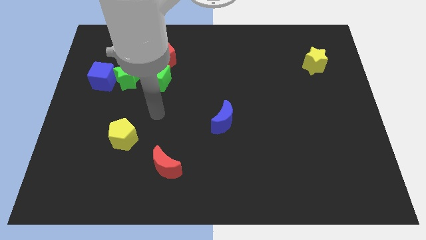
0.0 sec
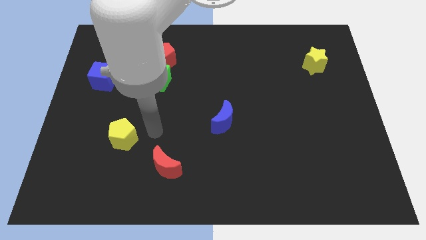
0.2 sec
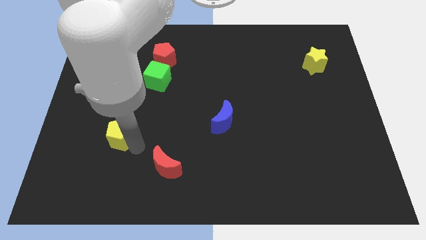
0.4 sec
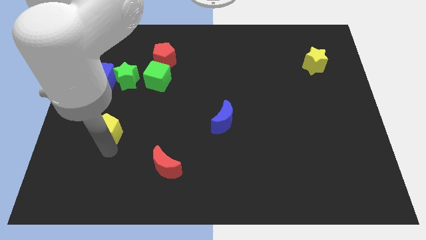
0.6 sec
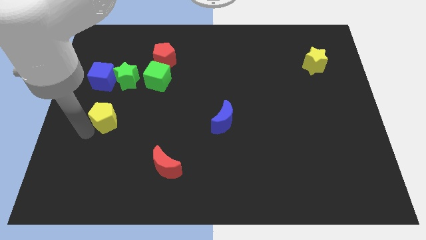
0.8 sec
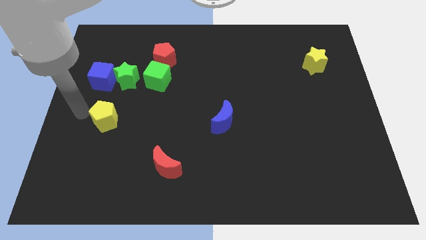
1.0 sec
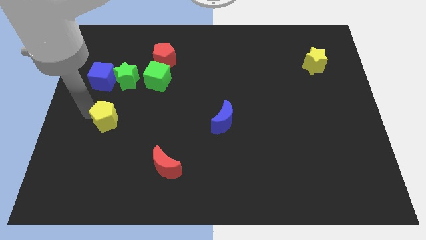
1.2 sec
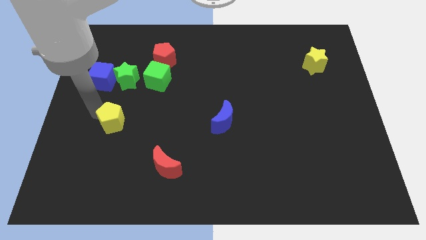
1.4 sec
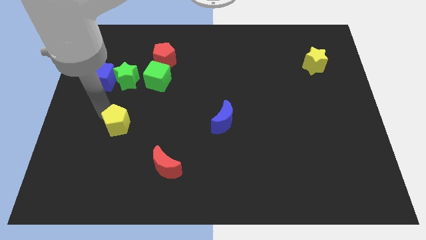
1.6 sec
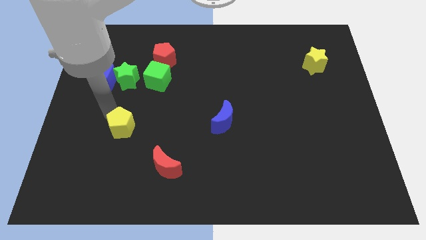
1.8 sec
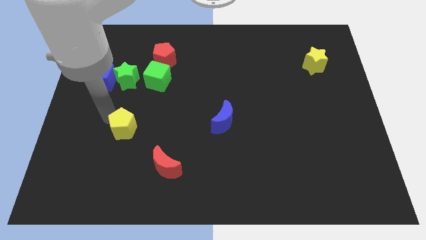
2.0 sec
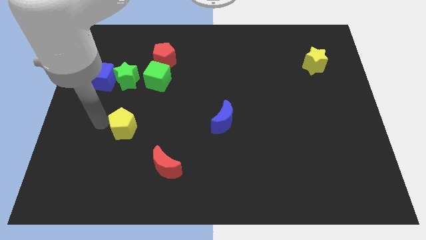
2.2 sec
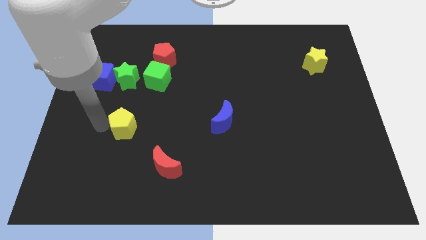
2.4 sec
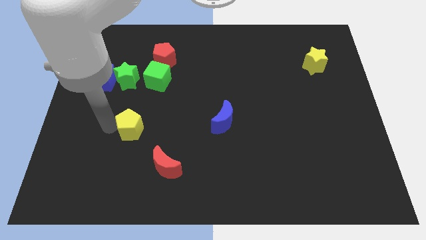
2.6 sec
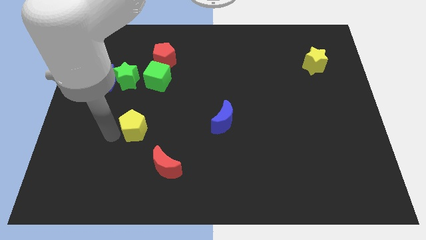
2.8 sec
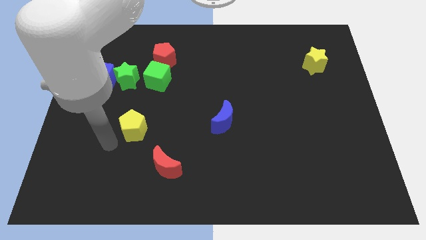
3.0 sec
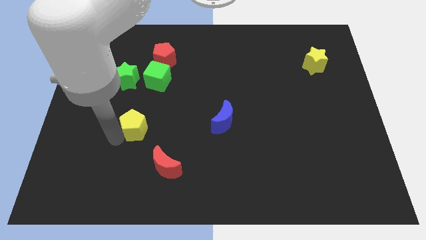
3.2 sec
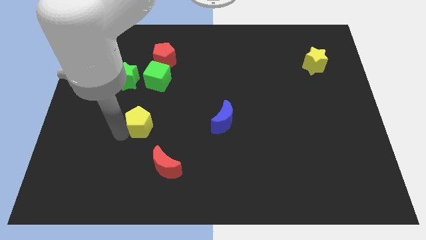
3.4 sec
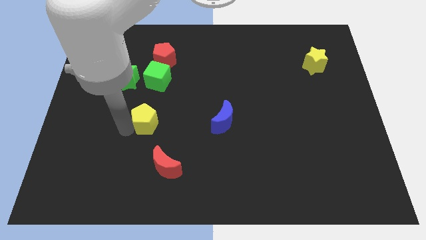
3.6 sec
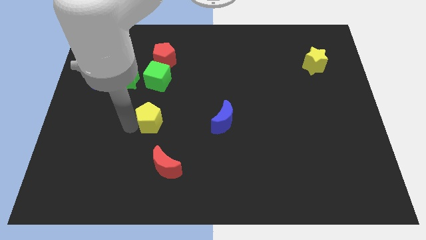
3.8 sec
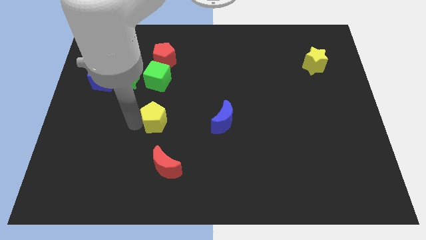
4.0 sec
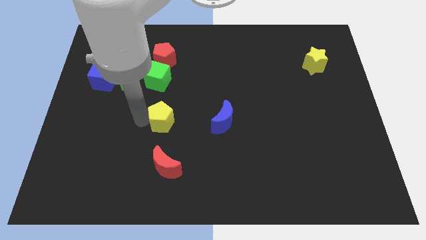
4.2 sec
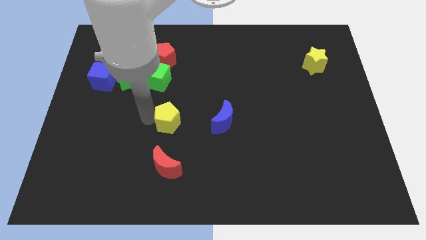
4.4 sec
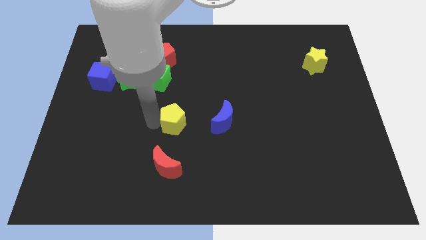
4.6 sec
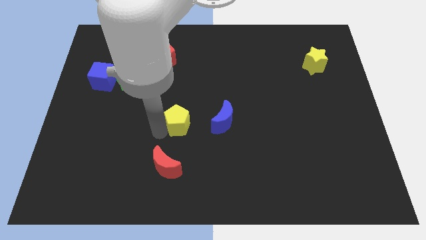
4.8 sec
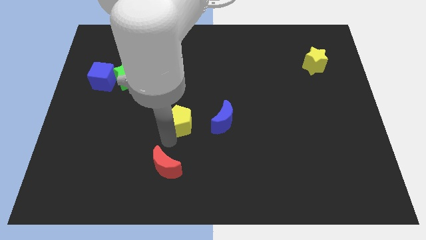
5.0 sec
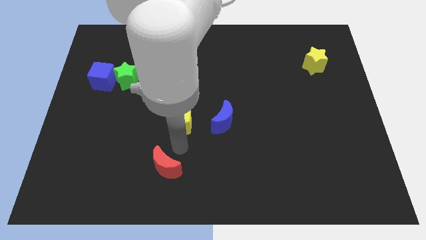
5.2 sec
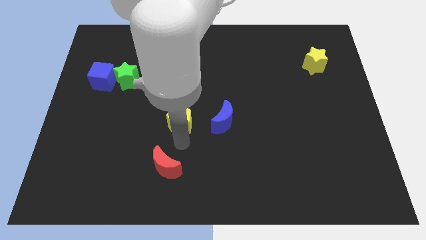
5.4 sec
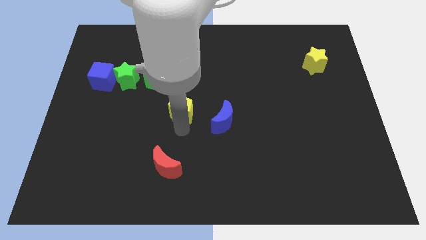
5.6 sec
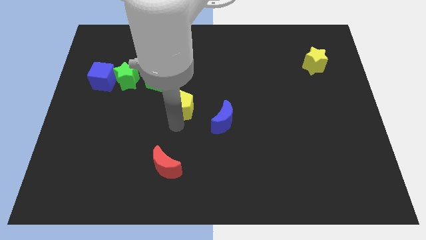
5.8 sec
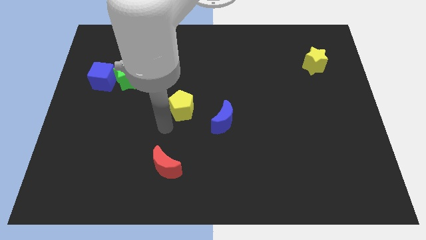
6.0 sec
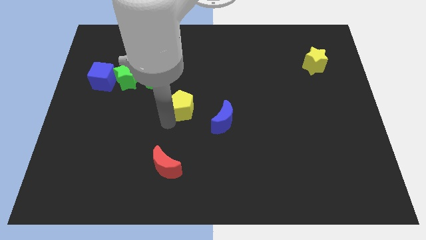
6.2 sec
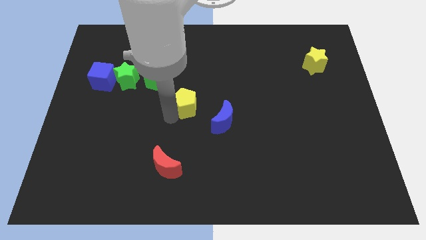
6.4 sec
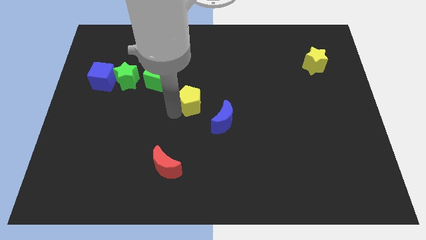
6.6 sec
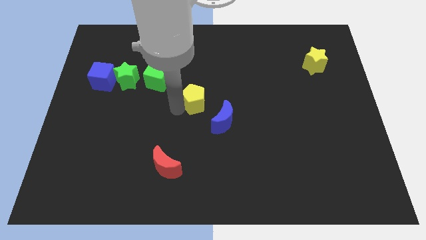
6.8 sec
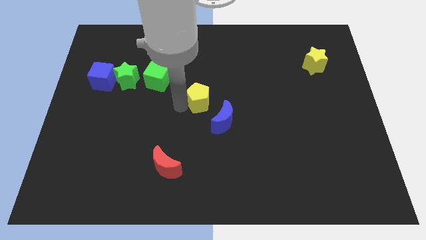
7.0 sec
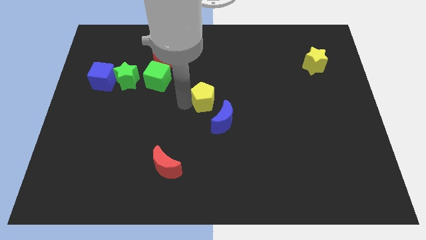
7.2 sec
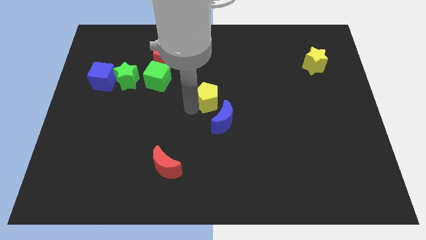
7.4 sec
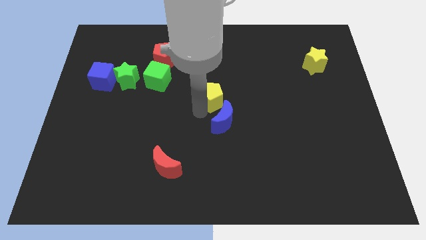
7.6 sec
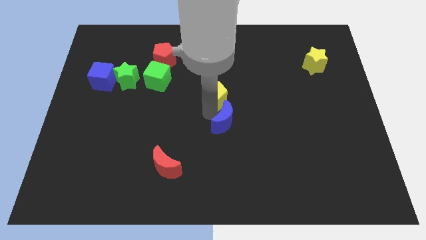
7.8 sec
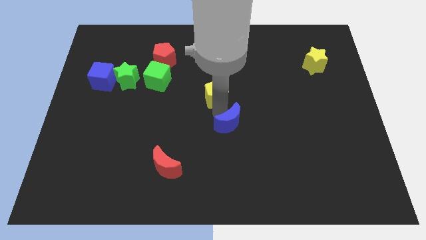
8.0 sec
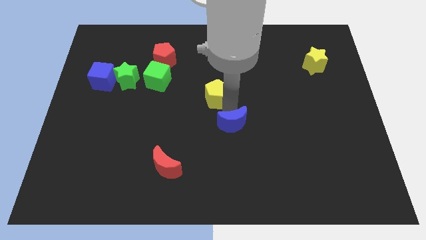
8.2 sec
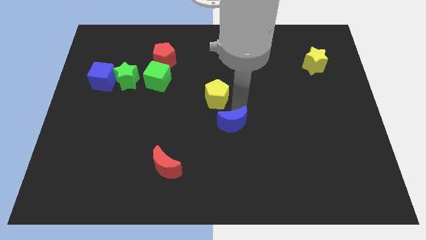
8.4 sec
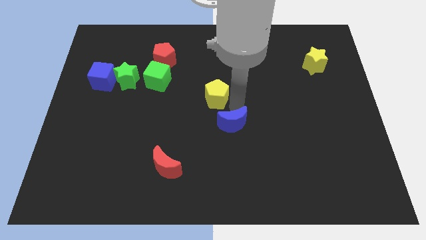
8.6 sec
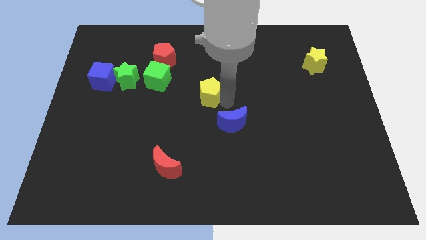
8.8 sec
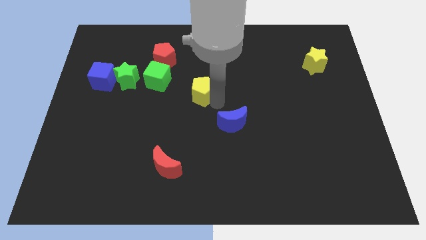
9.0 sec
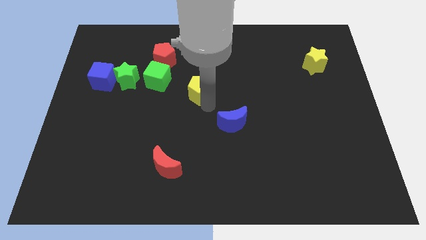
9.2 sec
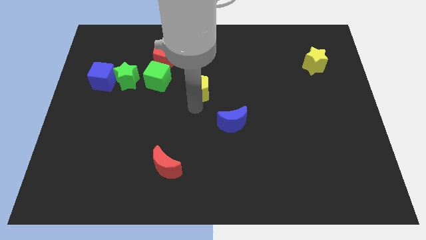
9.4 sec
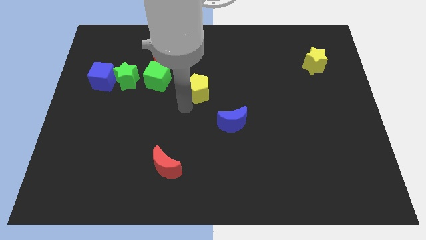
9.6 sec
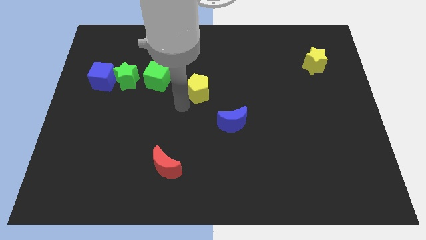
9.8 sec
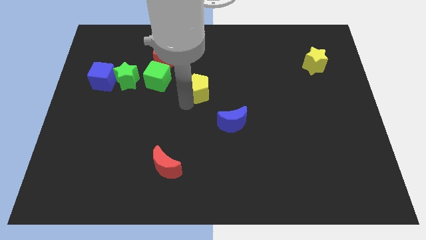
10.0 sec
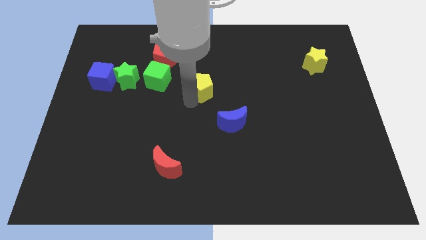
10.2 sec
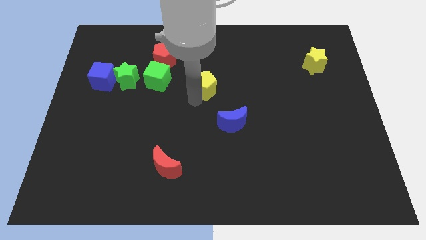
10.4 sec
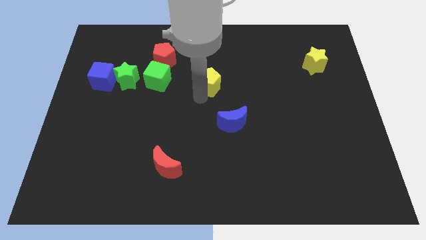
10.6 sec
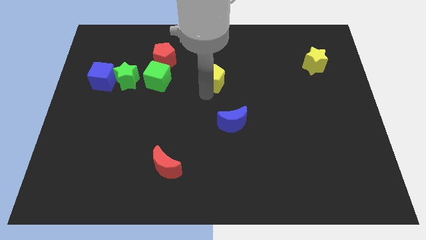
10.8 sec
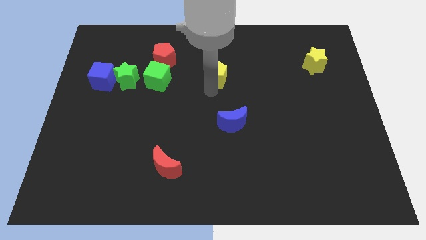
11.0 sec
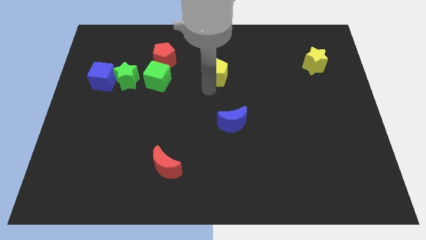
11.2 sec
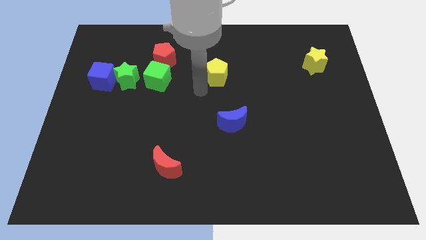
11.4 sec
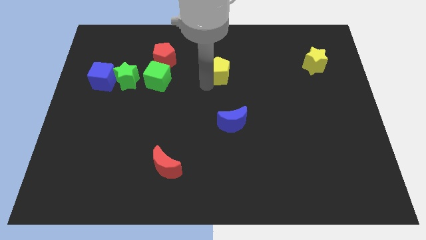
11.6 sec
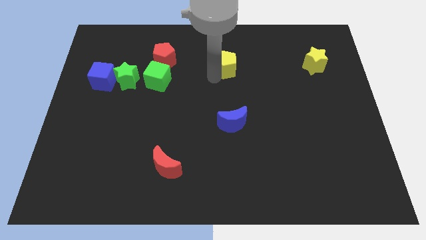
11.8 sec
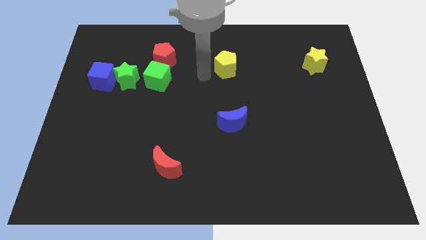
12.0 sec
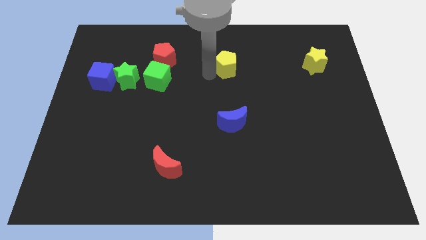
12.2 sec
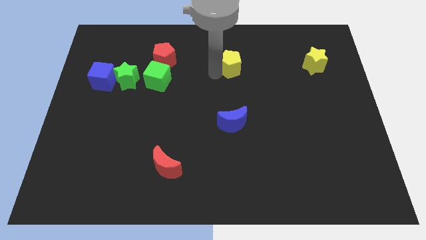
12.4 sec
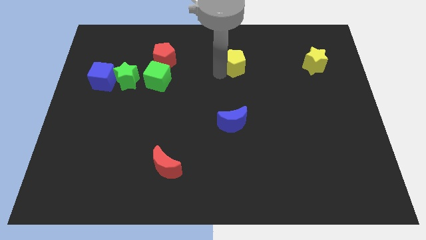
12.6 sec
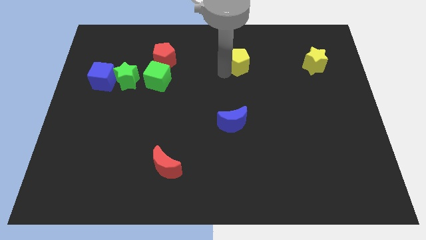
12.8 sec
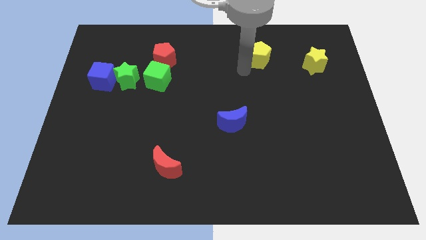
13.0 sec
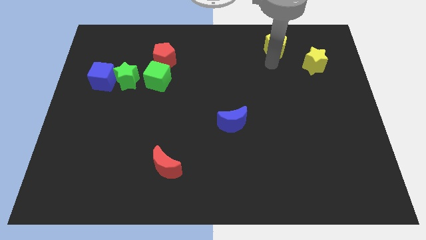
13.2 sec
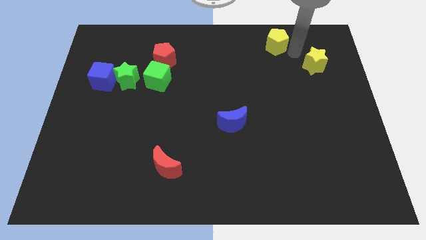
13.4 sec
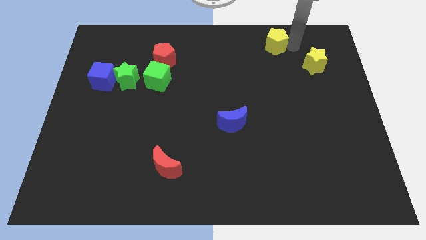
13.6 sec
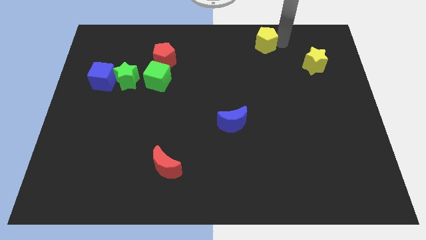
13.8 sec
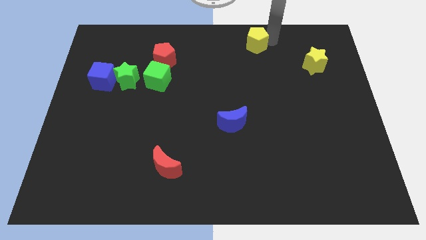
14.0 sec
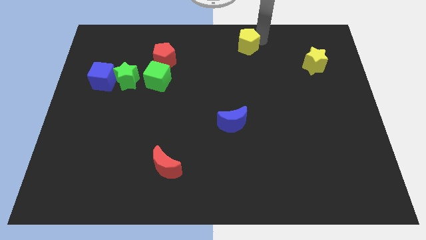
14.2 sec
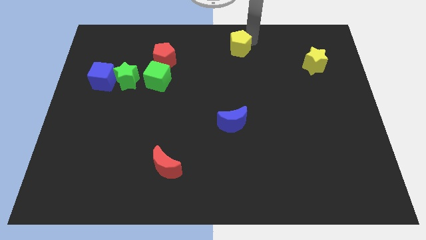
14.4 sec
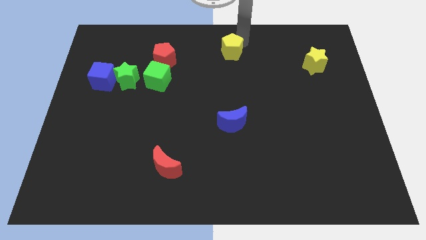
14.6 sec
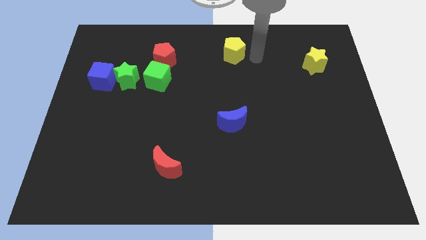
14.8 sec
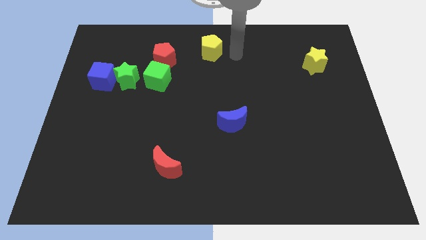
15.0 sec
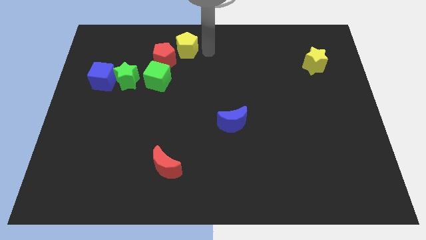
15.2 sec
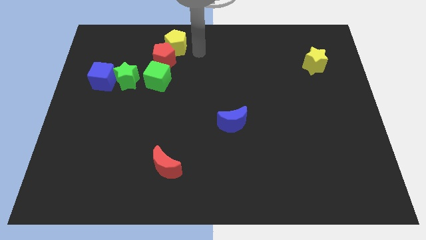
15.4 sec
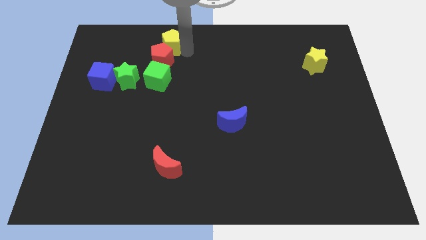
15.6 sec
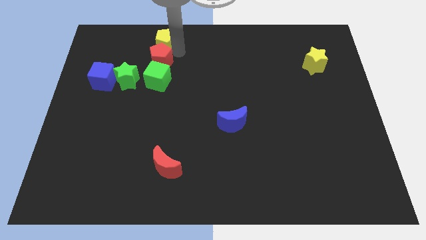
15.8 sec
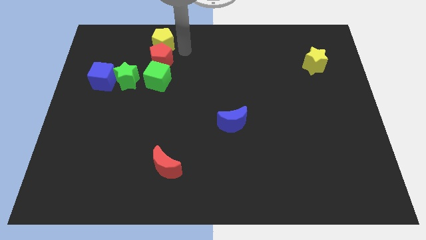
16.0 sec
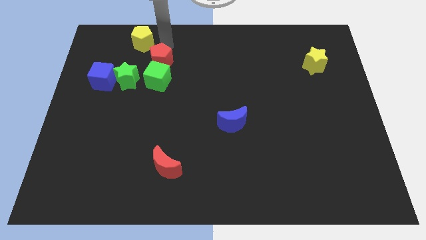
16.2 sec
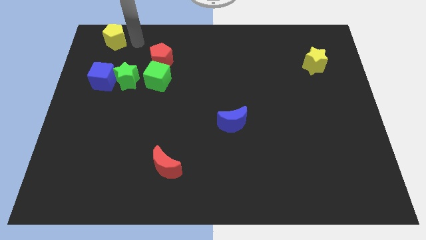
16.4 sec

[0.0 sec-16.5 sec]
put the yellow pentagon to the upper left corner
